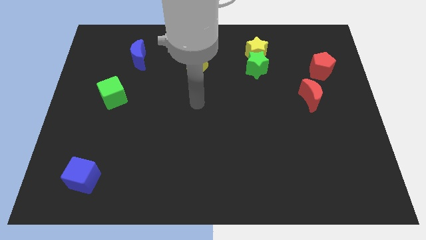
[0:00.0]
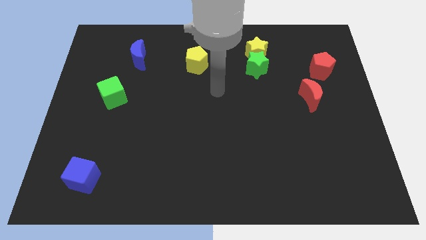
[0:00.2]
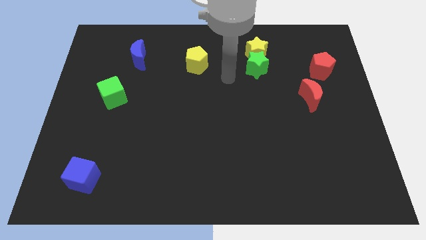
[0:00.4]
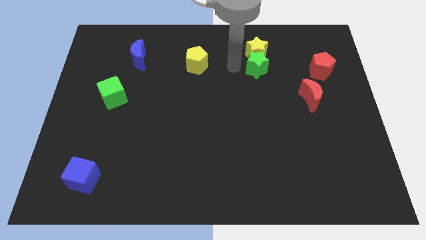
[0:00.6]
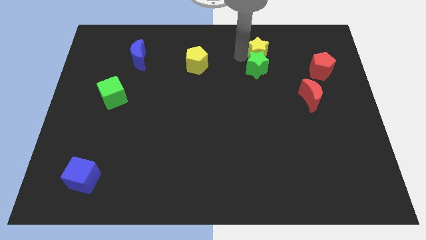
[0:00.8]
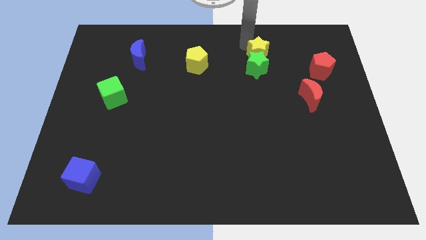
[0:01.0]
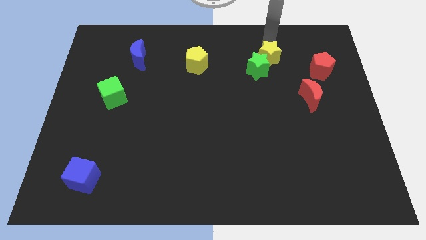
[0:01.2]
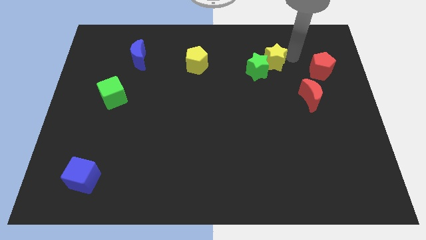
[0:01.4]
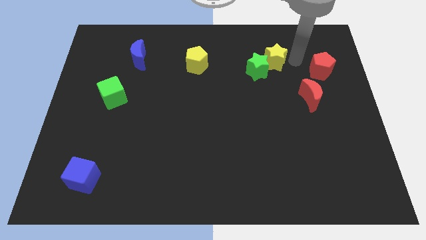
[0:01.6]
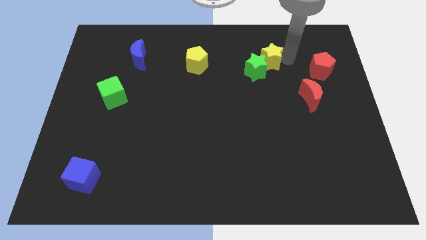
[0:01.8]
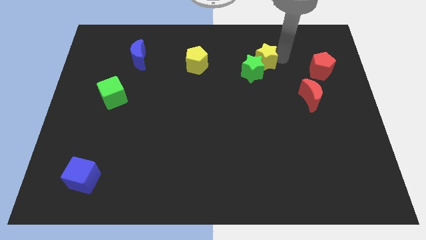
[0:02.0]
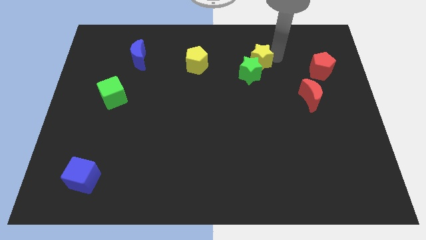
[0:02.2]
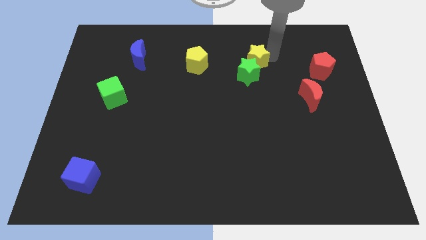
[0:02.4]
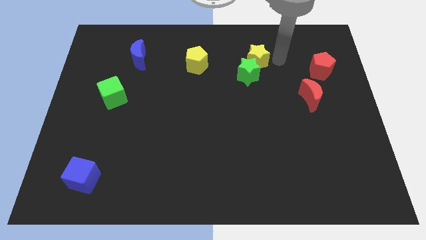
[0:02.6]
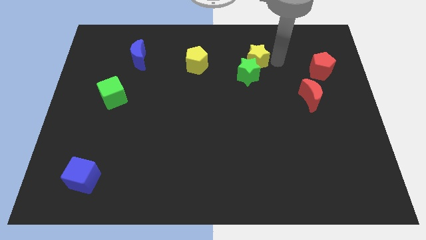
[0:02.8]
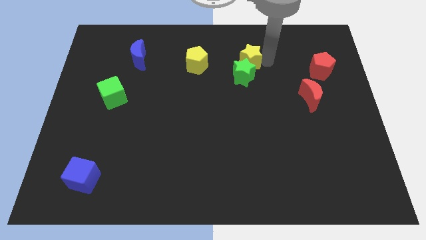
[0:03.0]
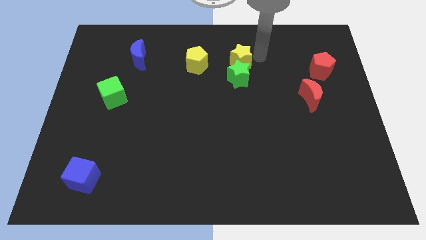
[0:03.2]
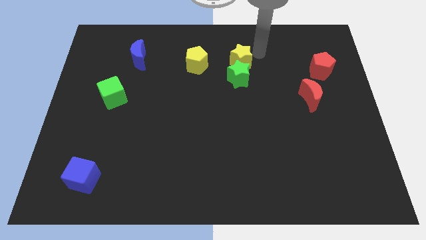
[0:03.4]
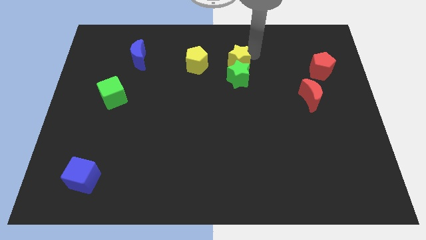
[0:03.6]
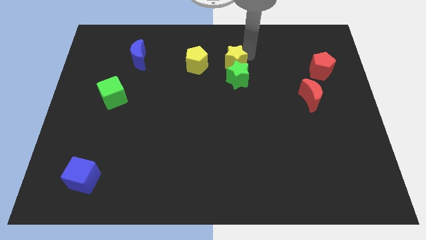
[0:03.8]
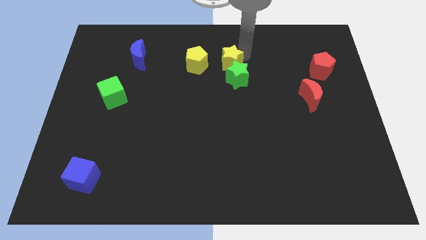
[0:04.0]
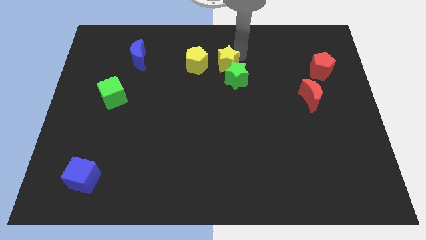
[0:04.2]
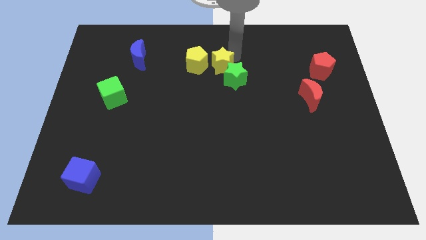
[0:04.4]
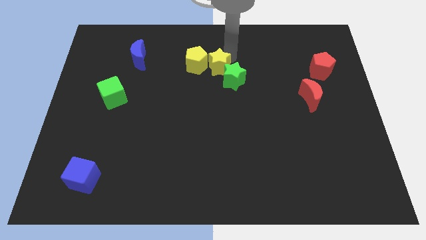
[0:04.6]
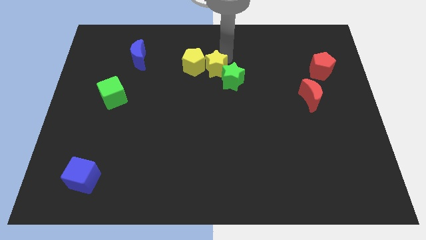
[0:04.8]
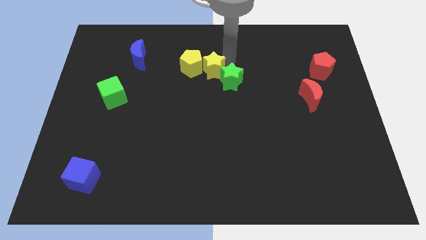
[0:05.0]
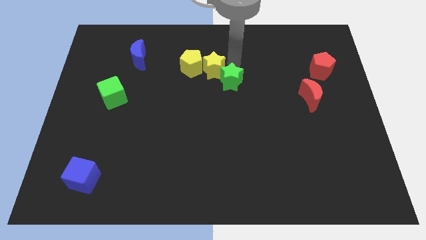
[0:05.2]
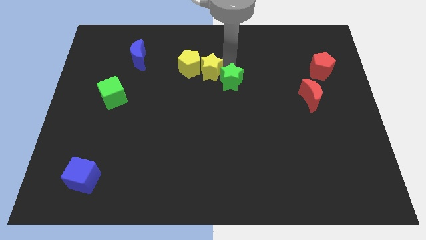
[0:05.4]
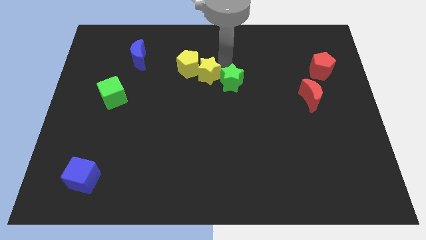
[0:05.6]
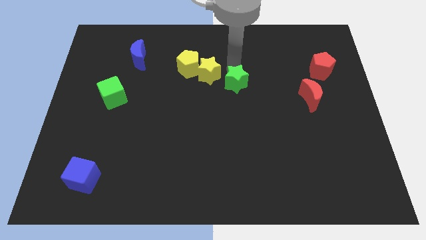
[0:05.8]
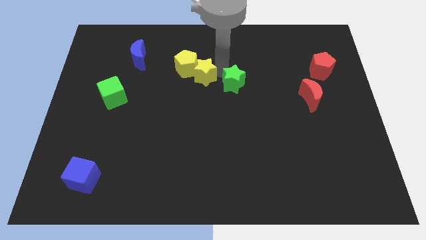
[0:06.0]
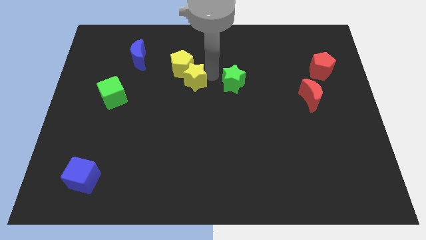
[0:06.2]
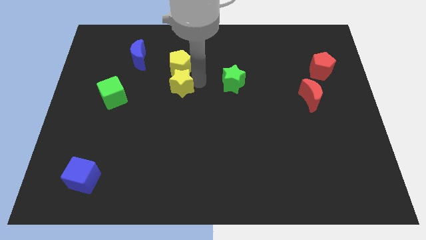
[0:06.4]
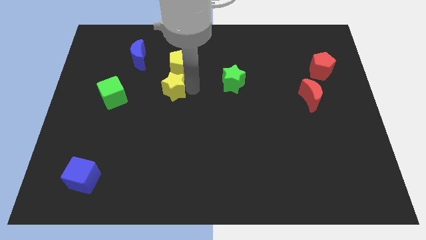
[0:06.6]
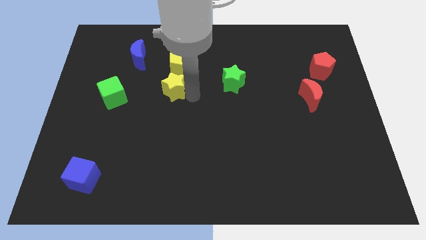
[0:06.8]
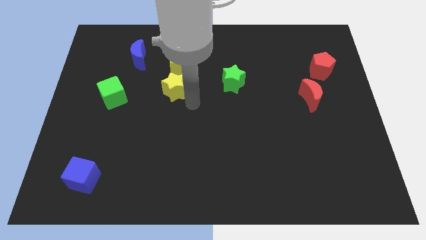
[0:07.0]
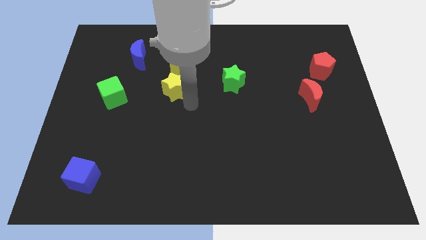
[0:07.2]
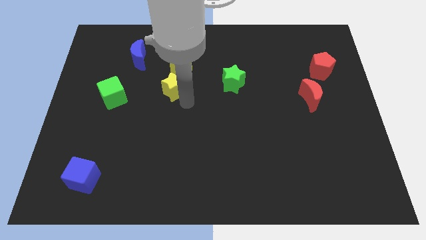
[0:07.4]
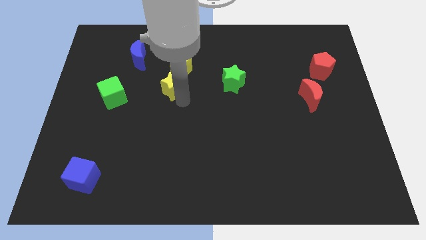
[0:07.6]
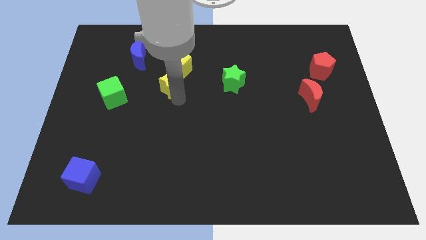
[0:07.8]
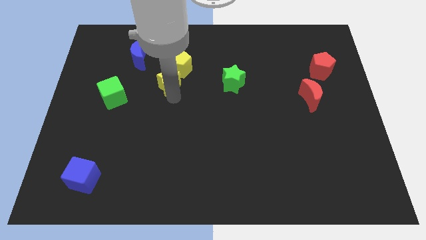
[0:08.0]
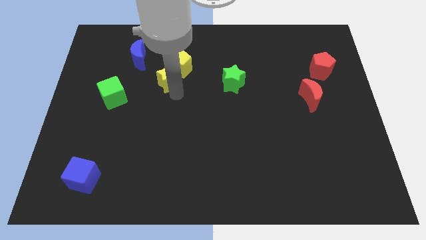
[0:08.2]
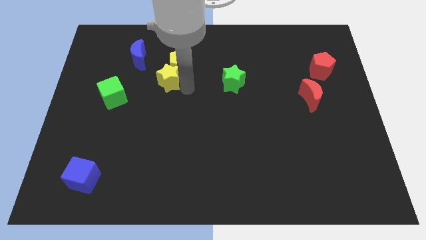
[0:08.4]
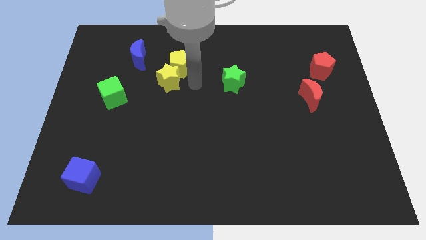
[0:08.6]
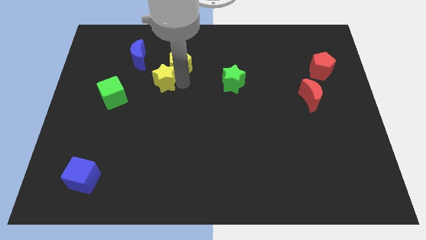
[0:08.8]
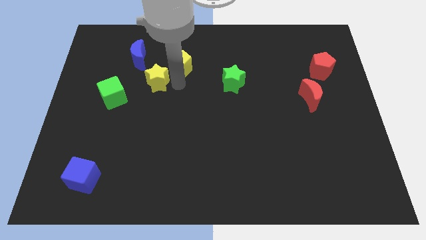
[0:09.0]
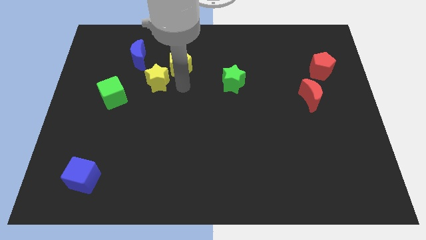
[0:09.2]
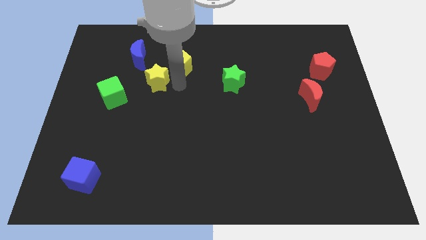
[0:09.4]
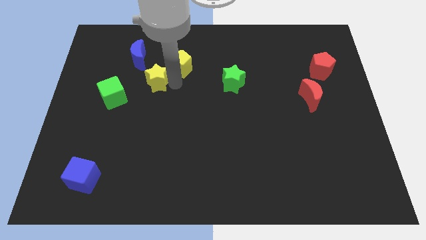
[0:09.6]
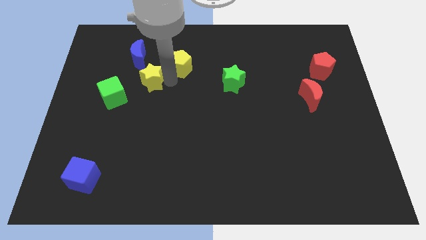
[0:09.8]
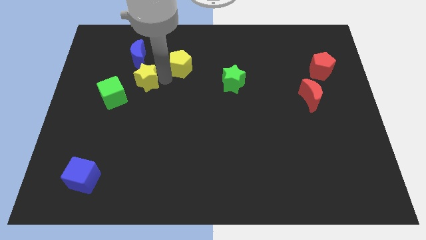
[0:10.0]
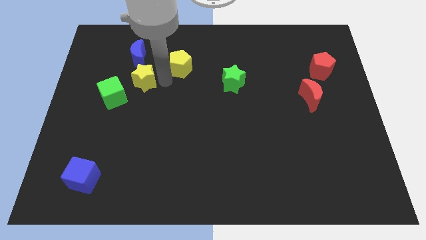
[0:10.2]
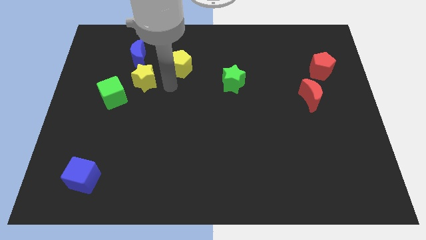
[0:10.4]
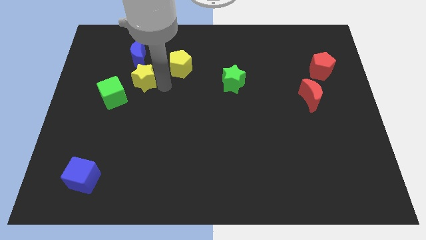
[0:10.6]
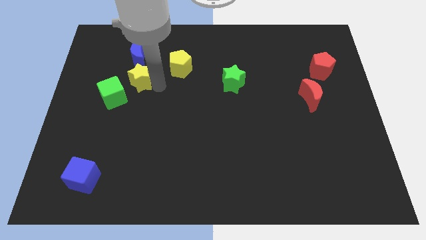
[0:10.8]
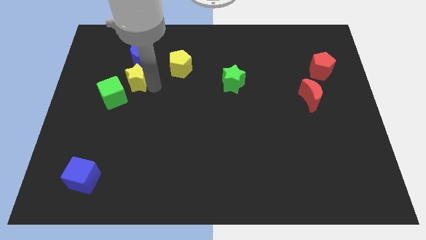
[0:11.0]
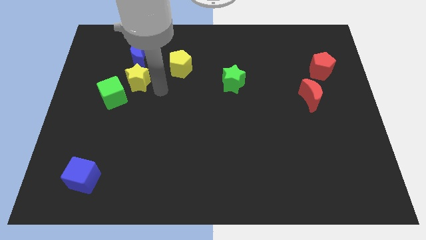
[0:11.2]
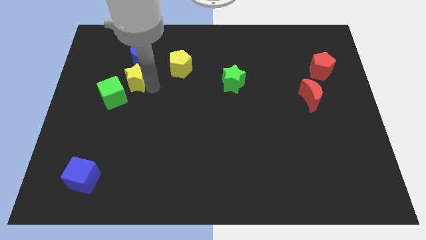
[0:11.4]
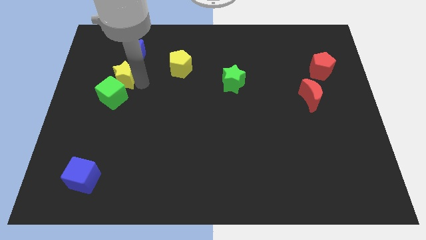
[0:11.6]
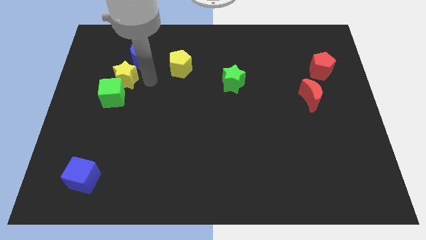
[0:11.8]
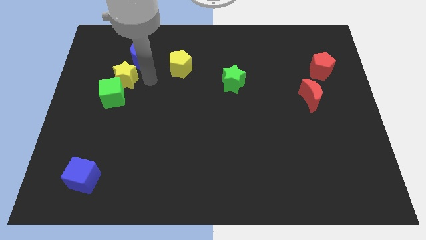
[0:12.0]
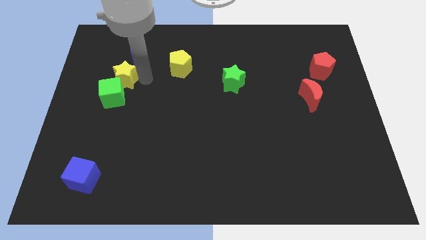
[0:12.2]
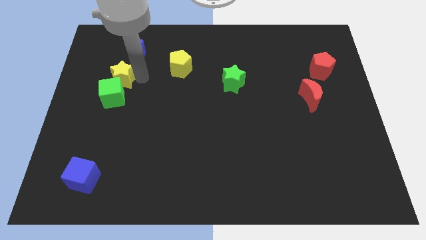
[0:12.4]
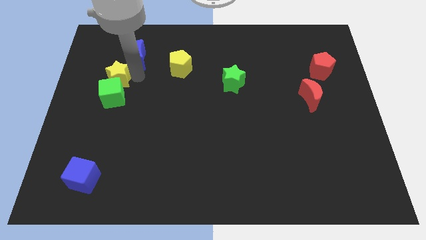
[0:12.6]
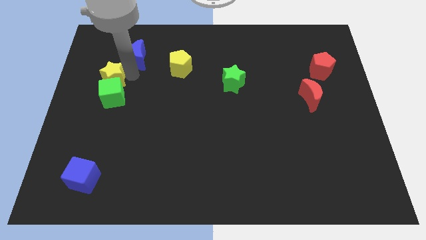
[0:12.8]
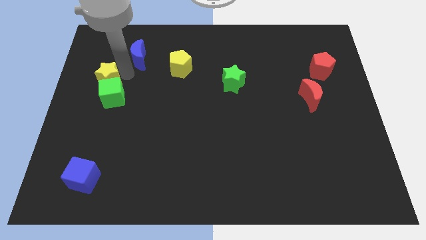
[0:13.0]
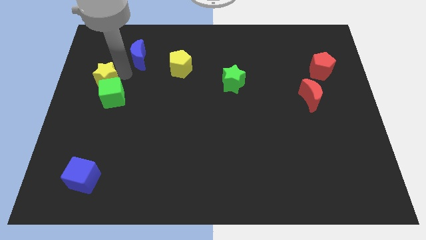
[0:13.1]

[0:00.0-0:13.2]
move the yellow star to the left side
